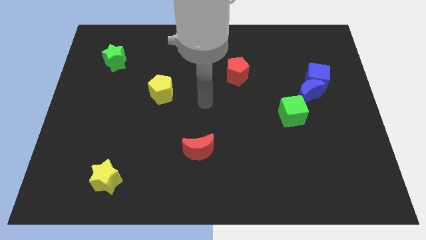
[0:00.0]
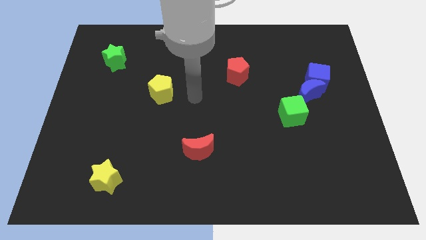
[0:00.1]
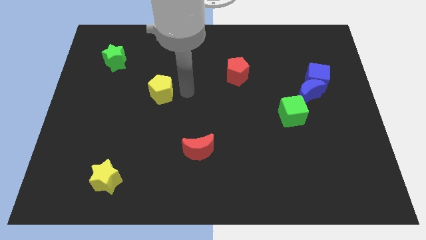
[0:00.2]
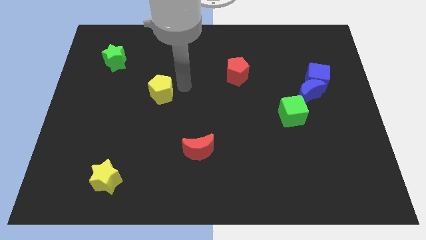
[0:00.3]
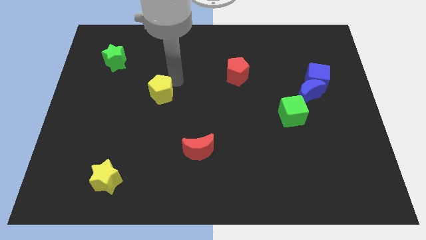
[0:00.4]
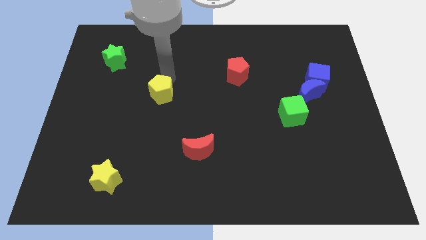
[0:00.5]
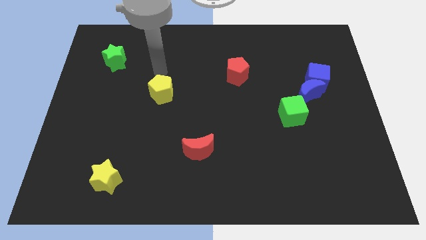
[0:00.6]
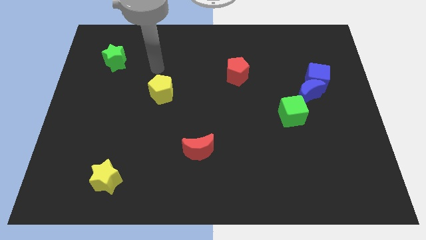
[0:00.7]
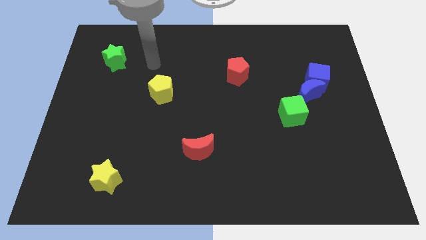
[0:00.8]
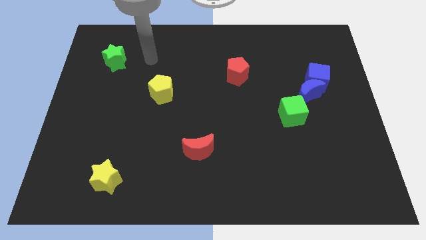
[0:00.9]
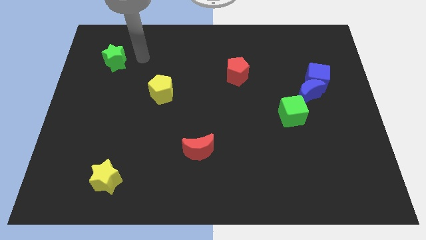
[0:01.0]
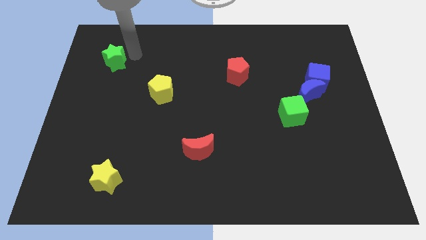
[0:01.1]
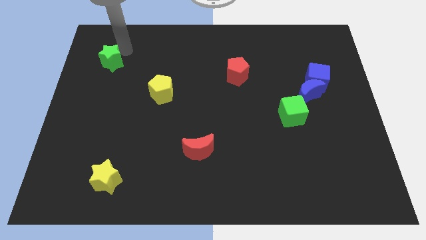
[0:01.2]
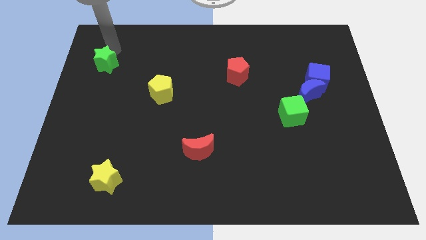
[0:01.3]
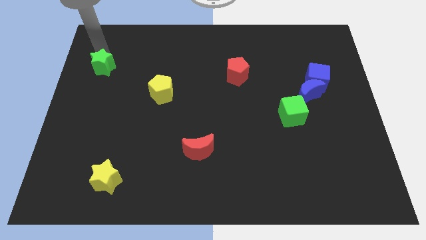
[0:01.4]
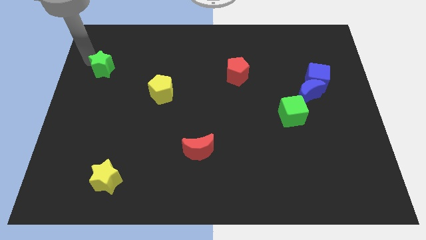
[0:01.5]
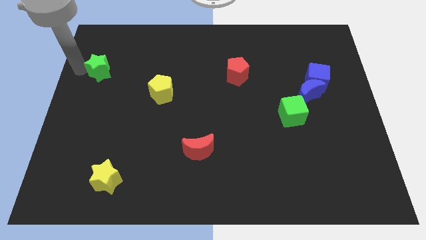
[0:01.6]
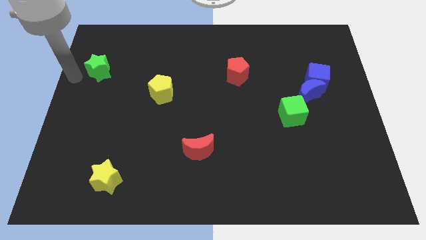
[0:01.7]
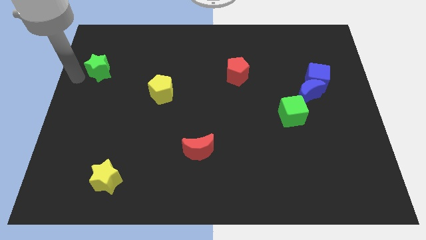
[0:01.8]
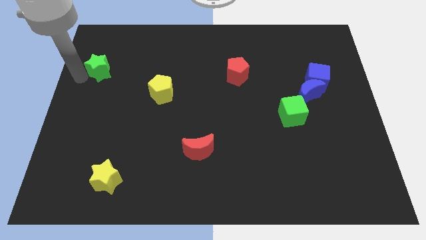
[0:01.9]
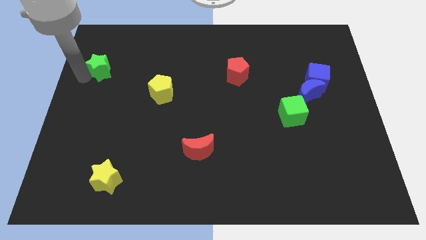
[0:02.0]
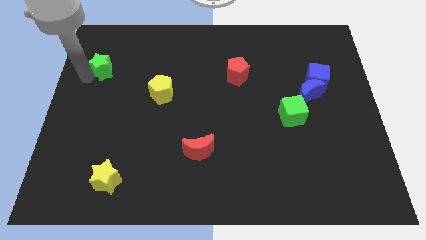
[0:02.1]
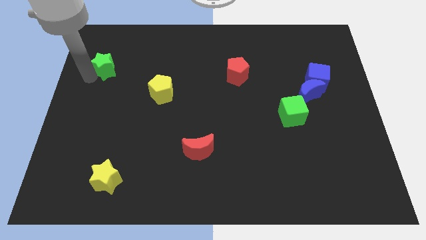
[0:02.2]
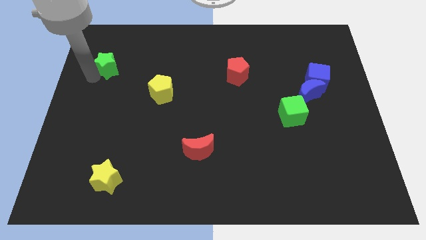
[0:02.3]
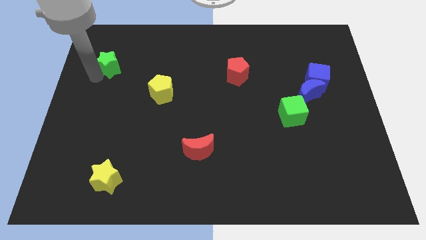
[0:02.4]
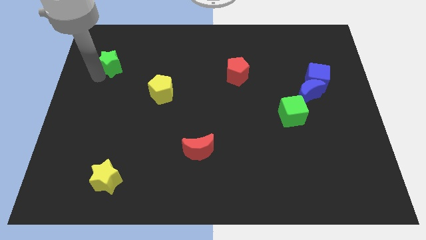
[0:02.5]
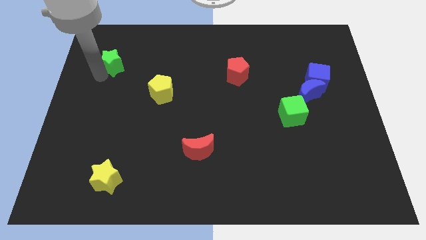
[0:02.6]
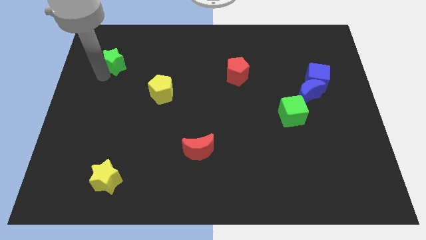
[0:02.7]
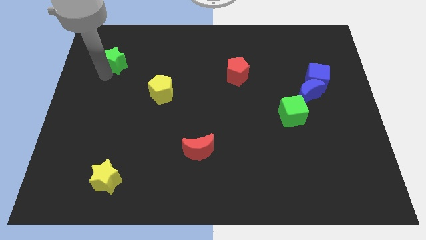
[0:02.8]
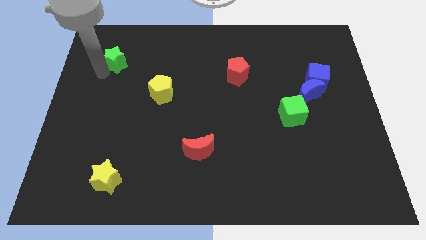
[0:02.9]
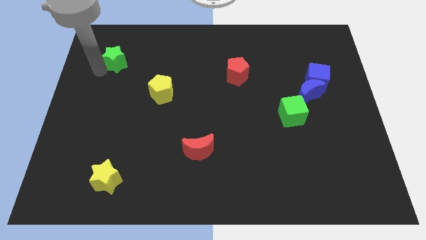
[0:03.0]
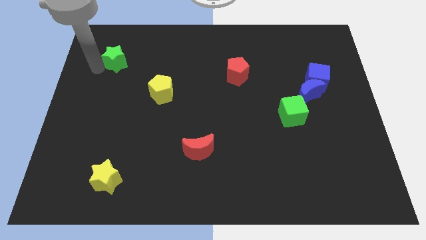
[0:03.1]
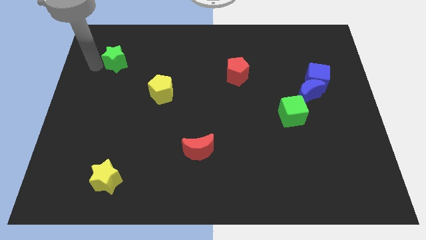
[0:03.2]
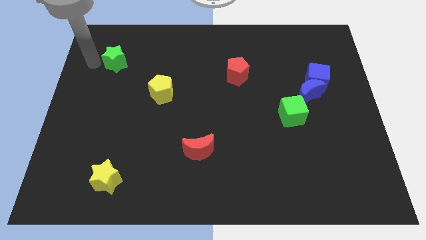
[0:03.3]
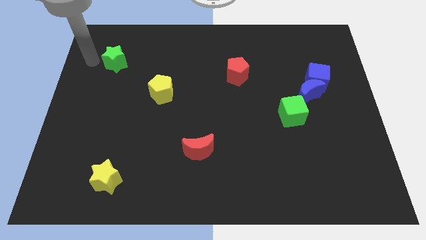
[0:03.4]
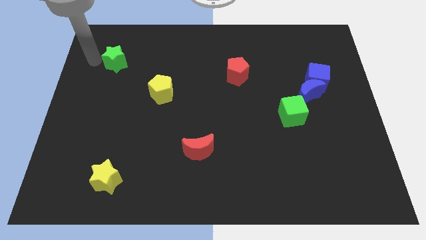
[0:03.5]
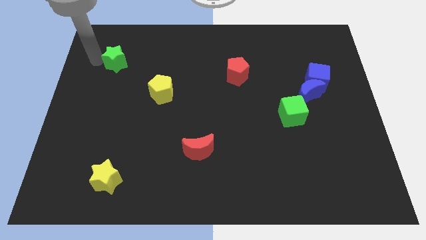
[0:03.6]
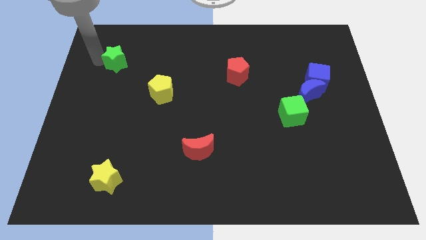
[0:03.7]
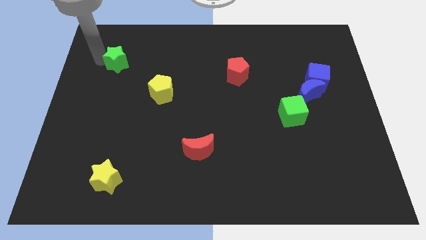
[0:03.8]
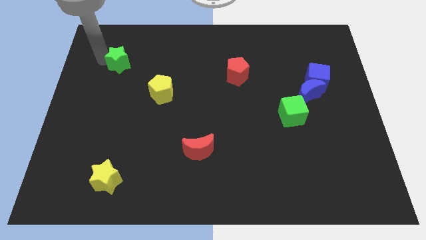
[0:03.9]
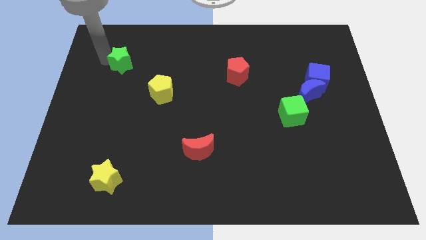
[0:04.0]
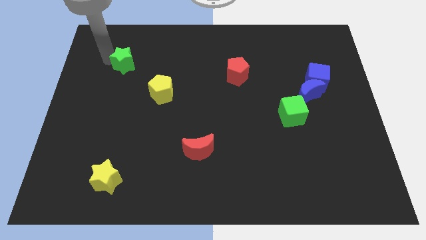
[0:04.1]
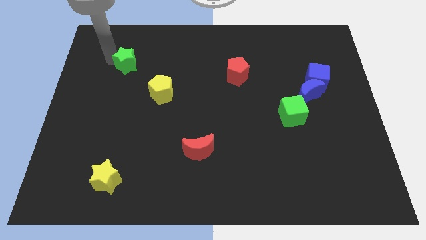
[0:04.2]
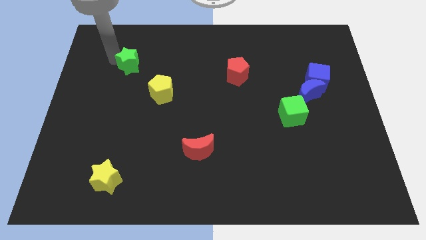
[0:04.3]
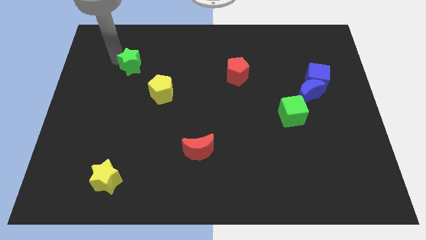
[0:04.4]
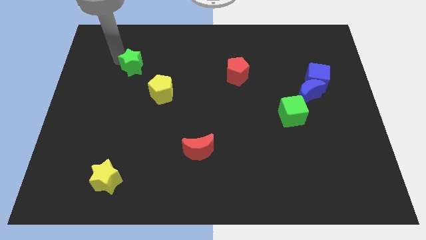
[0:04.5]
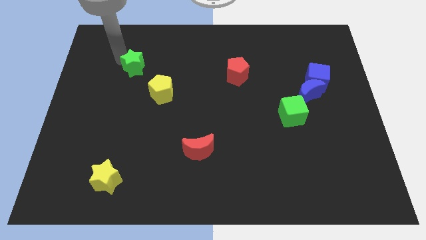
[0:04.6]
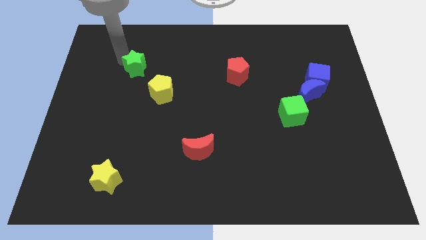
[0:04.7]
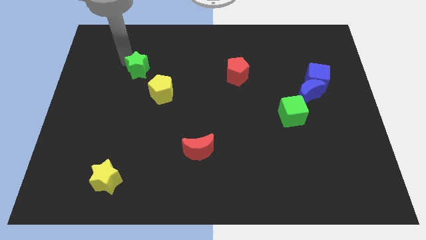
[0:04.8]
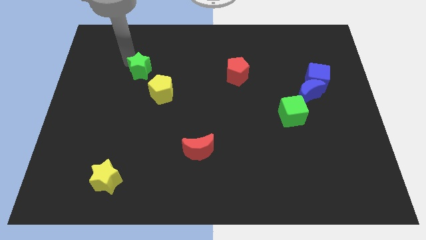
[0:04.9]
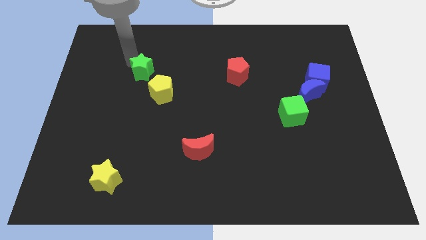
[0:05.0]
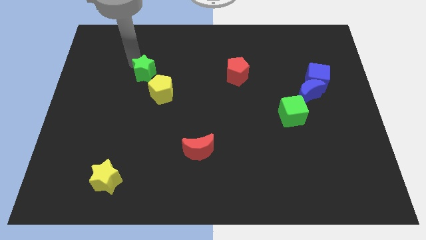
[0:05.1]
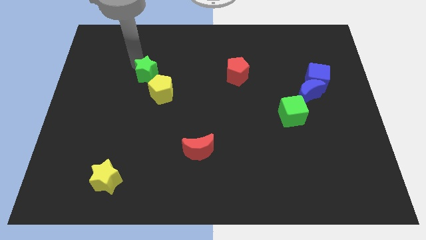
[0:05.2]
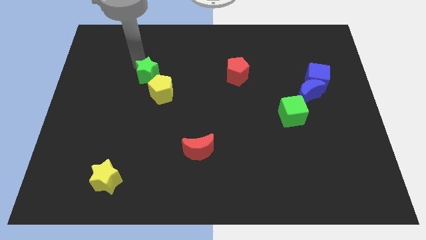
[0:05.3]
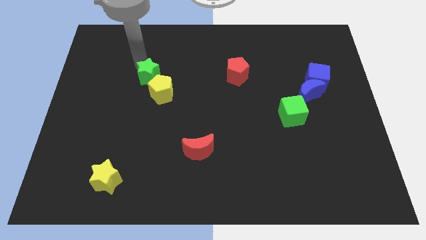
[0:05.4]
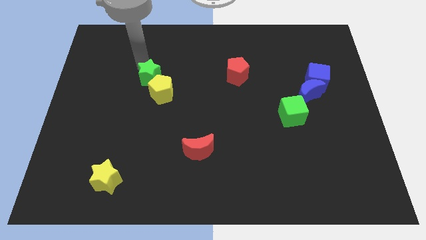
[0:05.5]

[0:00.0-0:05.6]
push the green star close to the yellow pentagon

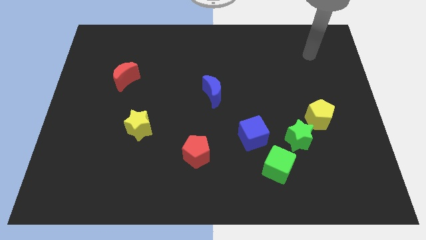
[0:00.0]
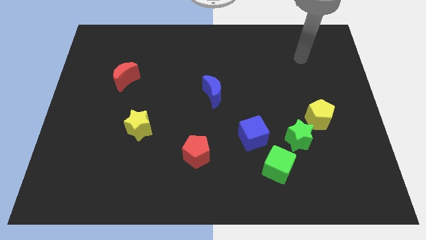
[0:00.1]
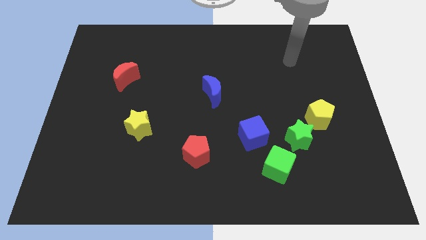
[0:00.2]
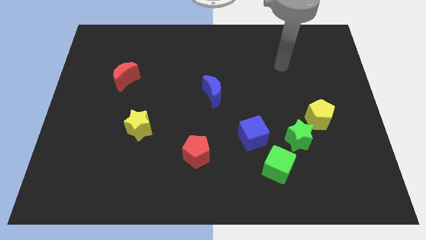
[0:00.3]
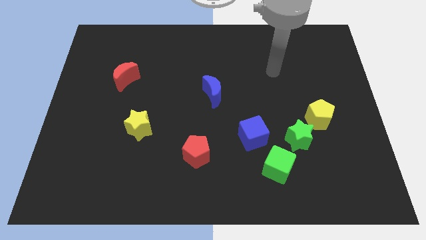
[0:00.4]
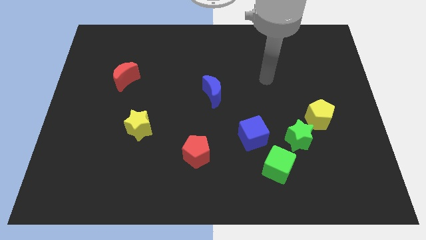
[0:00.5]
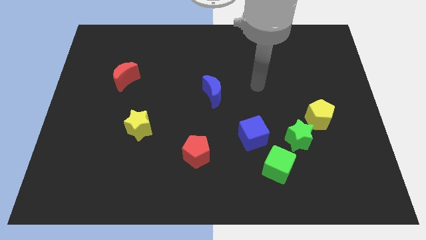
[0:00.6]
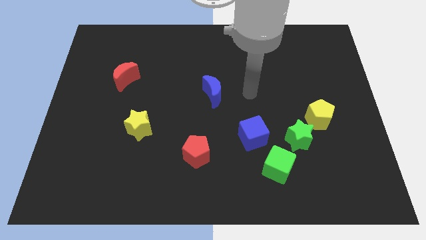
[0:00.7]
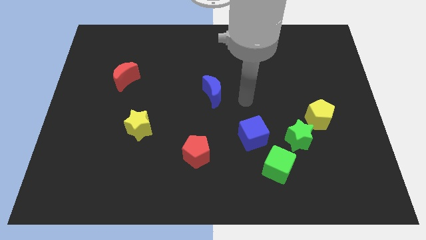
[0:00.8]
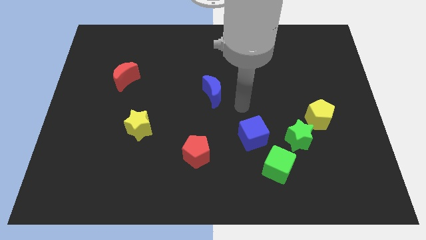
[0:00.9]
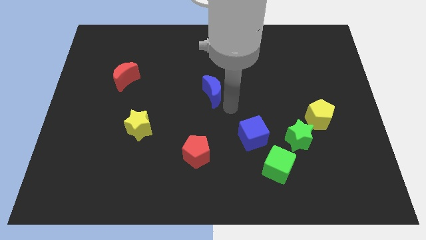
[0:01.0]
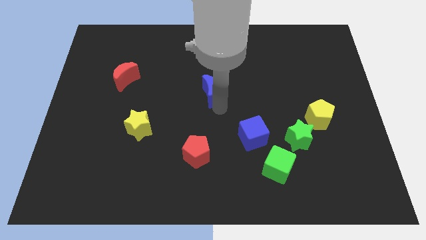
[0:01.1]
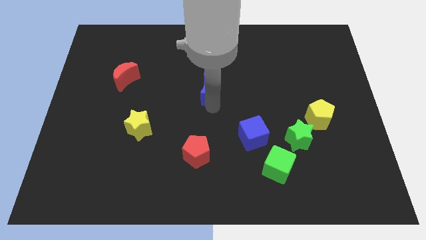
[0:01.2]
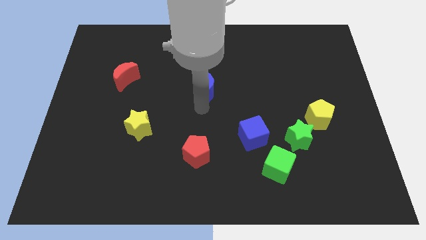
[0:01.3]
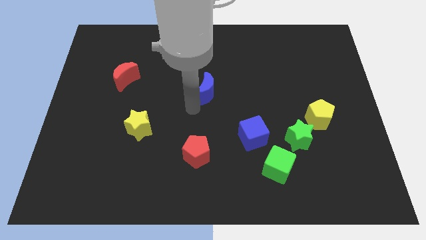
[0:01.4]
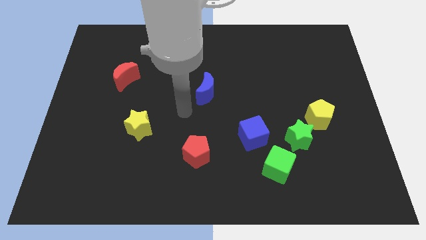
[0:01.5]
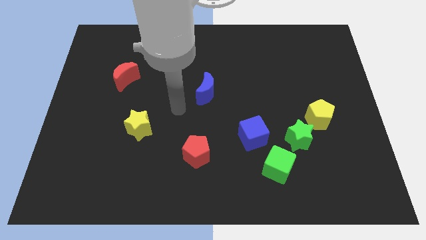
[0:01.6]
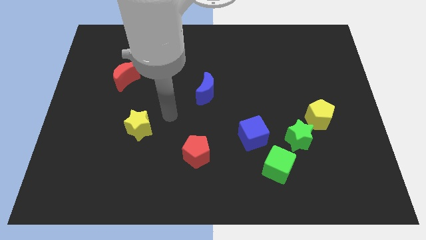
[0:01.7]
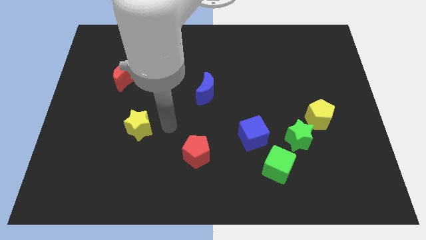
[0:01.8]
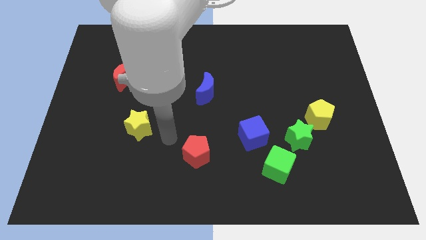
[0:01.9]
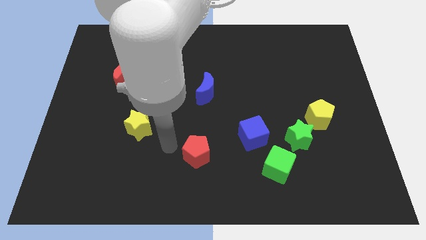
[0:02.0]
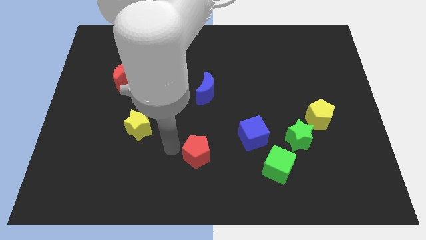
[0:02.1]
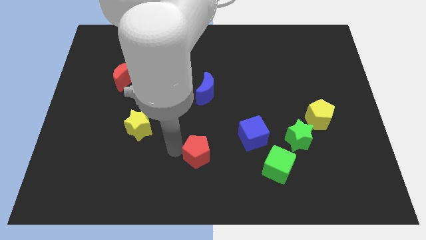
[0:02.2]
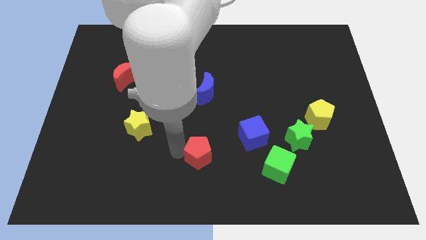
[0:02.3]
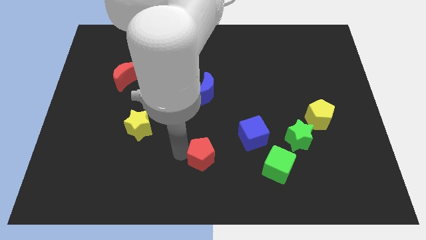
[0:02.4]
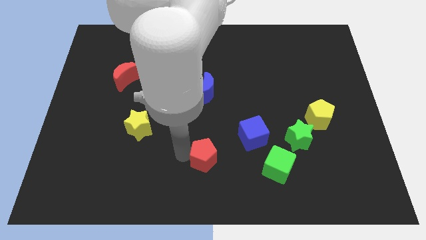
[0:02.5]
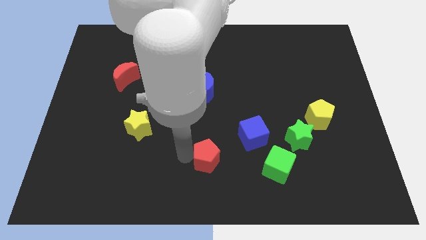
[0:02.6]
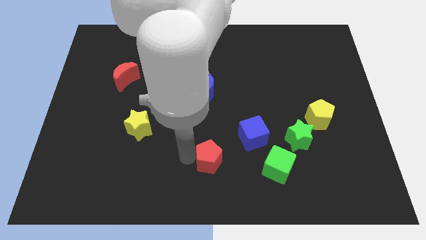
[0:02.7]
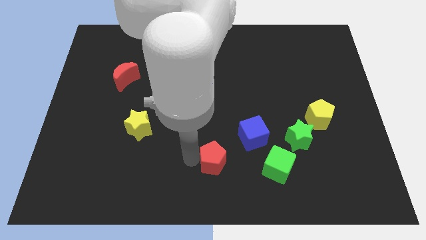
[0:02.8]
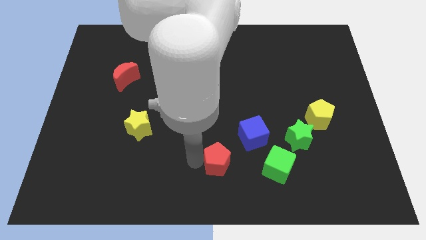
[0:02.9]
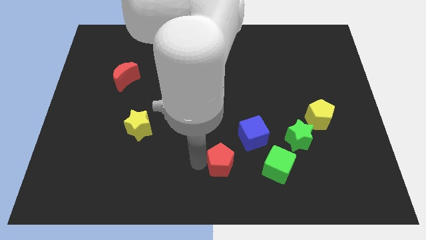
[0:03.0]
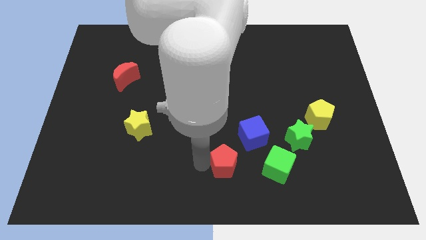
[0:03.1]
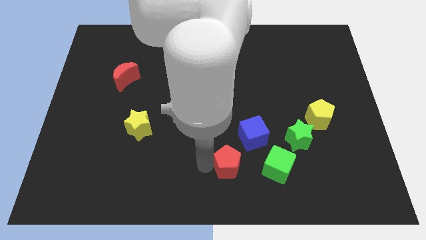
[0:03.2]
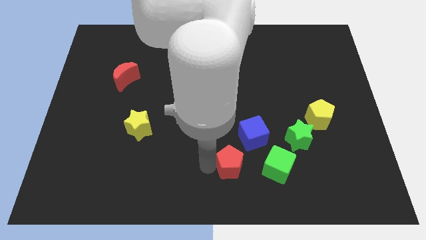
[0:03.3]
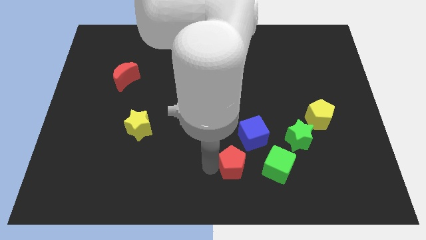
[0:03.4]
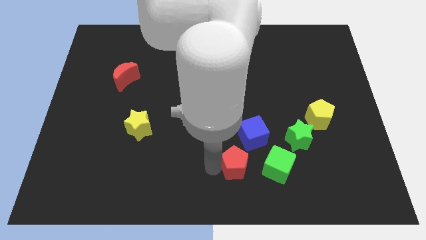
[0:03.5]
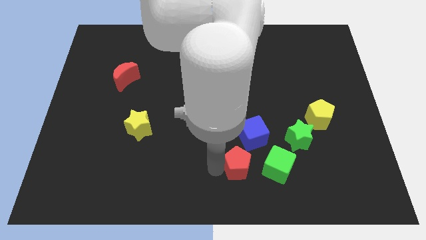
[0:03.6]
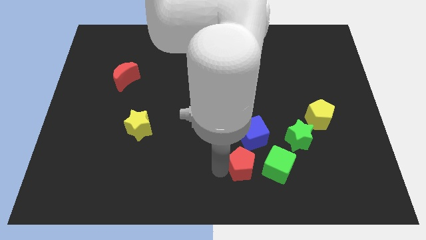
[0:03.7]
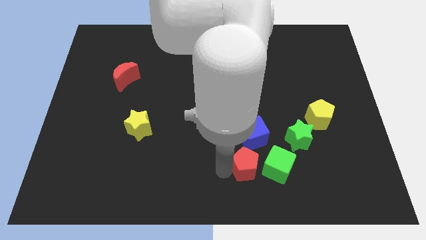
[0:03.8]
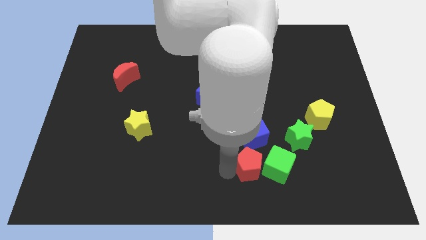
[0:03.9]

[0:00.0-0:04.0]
slide the red pentagon towards the green cube
